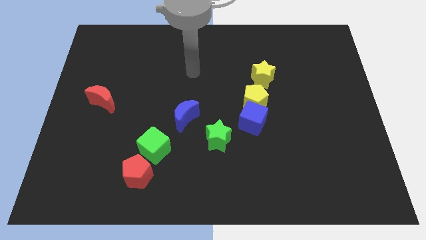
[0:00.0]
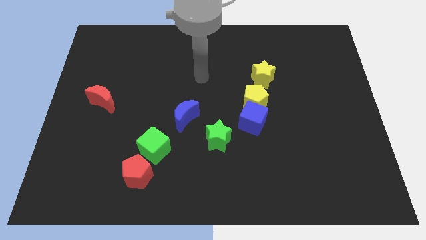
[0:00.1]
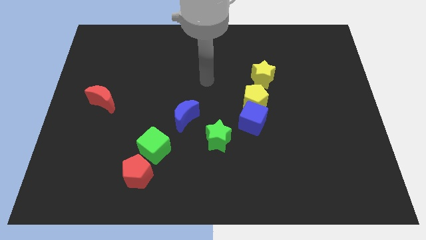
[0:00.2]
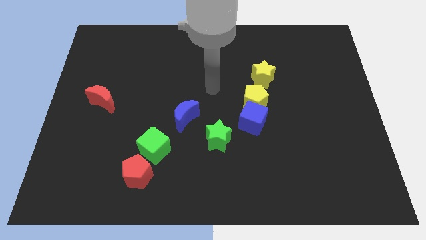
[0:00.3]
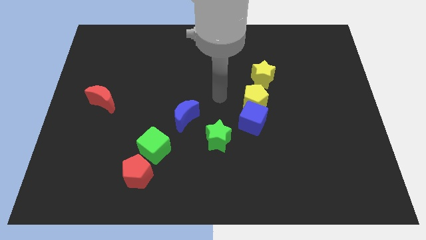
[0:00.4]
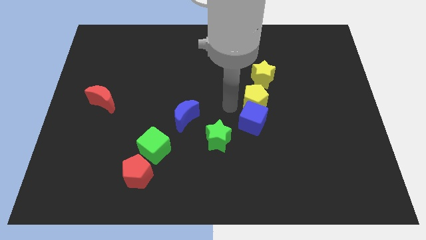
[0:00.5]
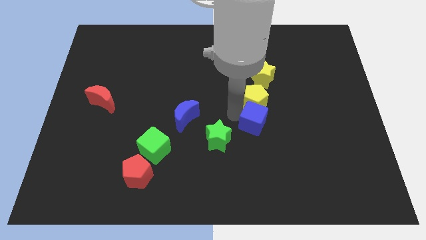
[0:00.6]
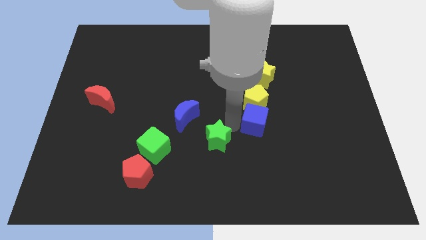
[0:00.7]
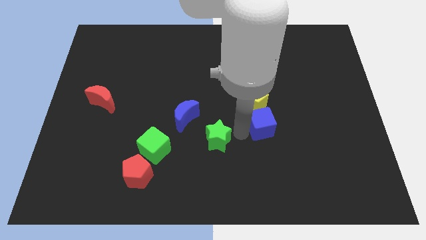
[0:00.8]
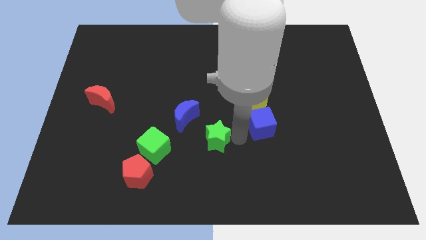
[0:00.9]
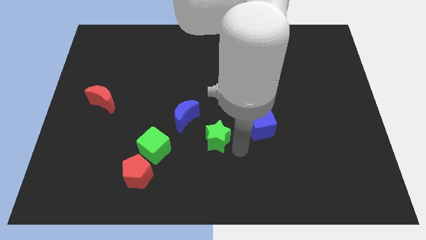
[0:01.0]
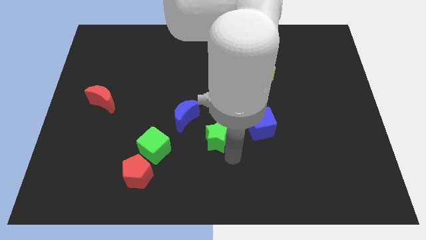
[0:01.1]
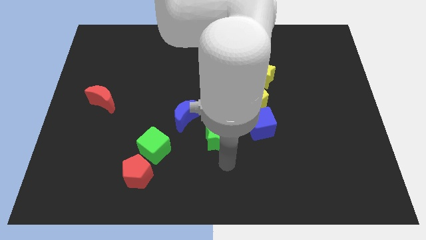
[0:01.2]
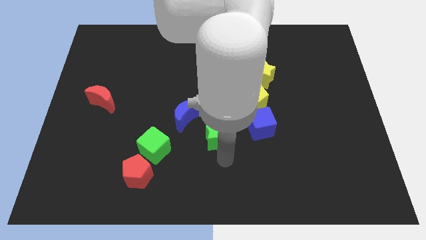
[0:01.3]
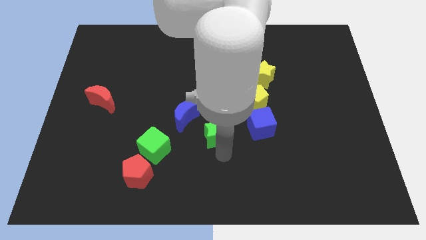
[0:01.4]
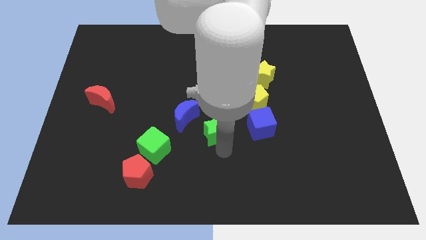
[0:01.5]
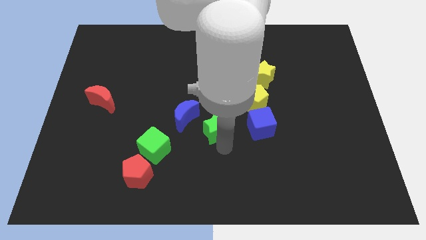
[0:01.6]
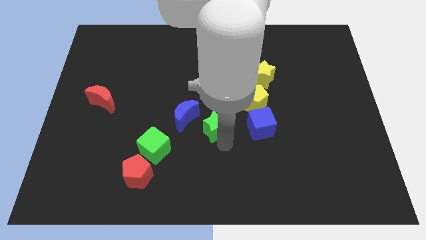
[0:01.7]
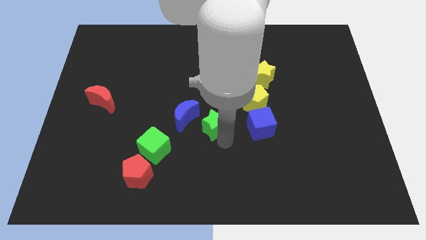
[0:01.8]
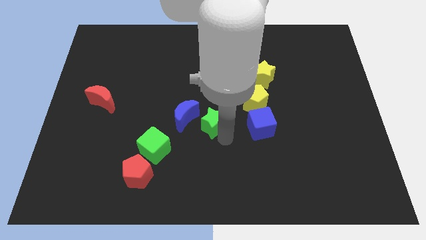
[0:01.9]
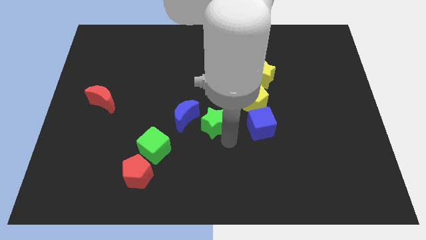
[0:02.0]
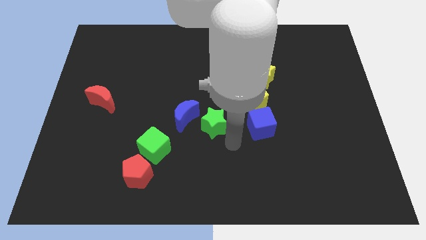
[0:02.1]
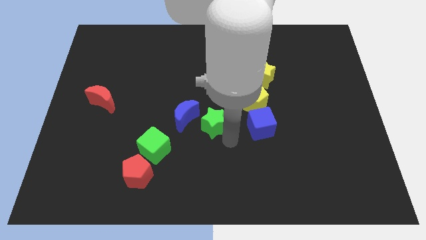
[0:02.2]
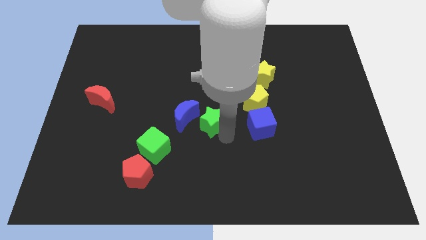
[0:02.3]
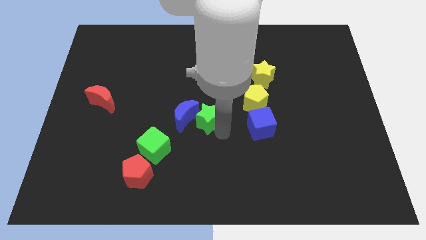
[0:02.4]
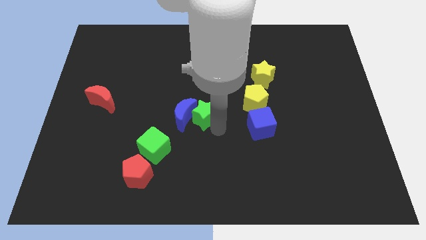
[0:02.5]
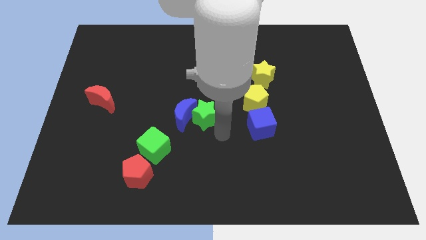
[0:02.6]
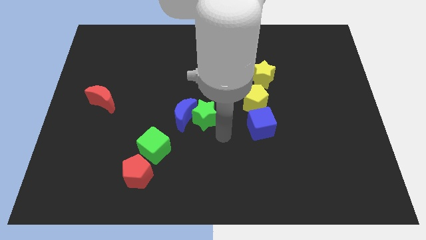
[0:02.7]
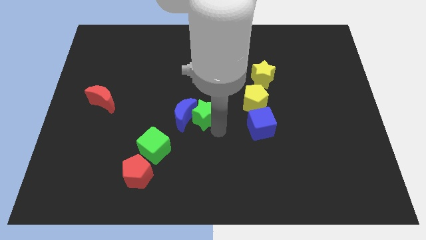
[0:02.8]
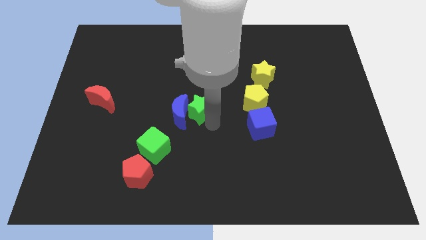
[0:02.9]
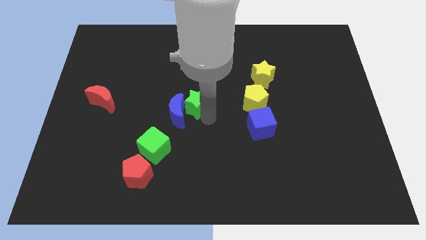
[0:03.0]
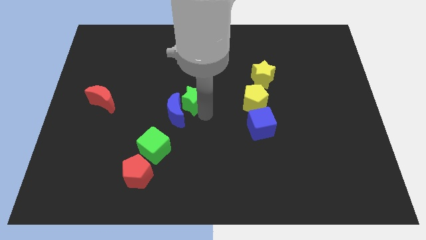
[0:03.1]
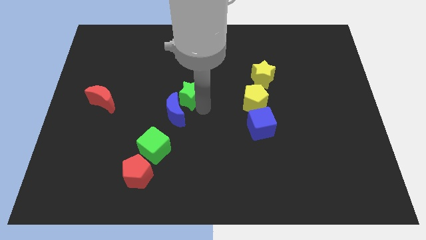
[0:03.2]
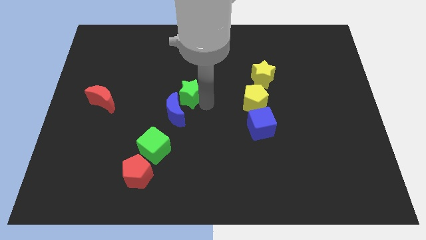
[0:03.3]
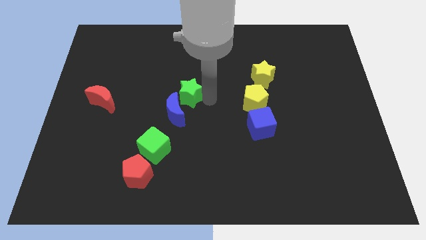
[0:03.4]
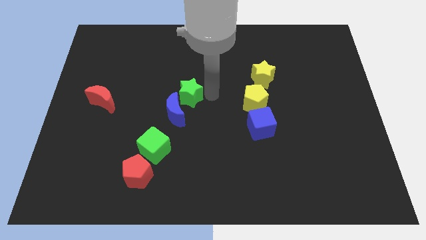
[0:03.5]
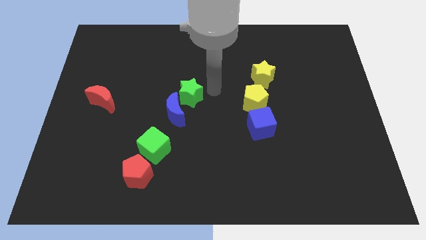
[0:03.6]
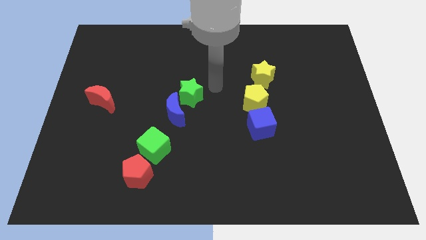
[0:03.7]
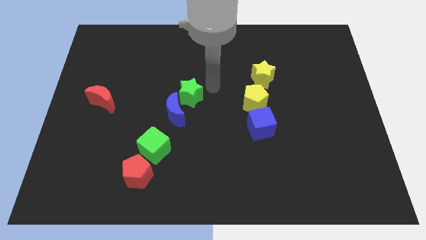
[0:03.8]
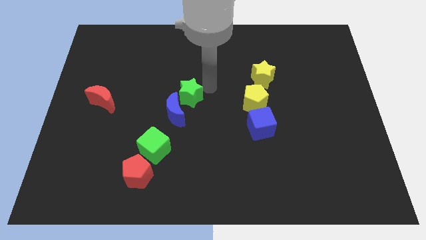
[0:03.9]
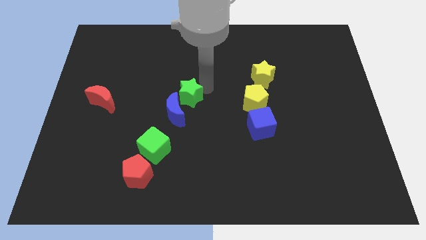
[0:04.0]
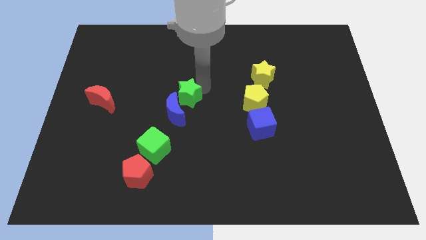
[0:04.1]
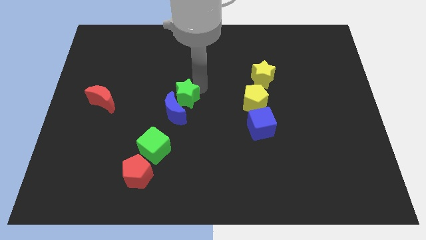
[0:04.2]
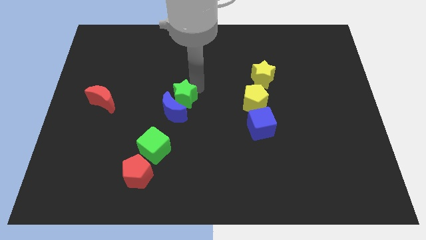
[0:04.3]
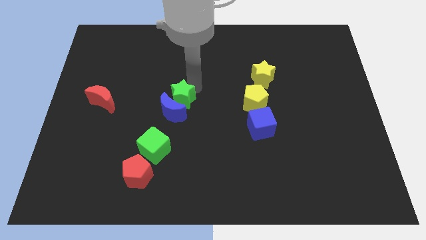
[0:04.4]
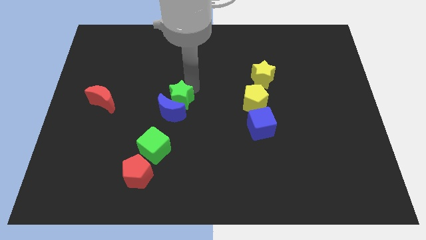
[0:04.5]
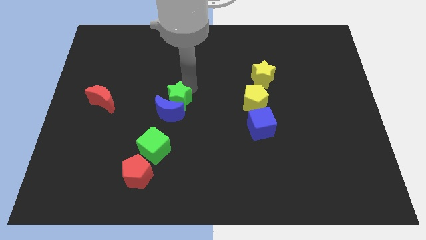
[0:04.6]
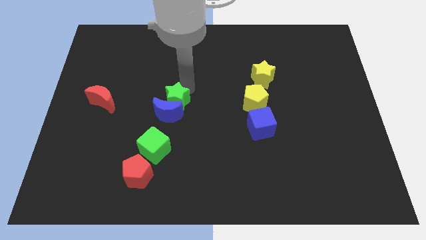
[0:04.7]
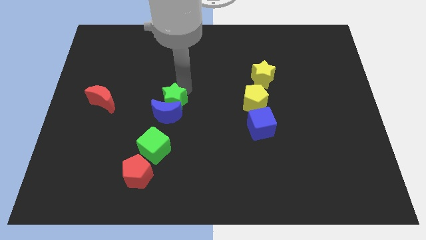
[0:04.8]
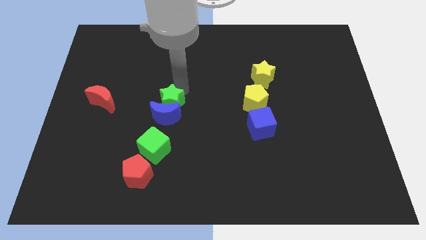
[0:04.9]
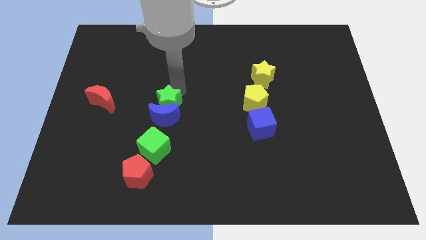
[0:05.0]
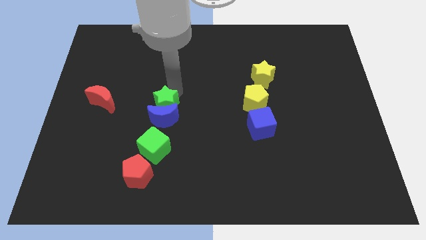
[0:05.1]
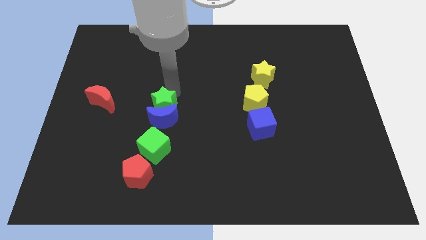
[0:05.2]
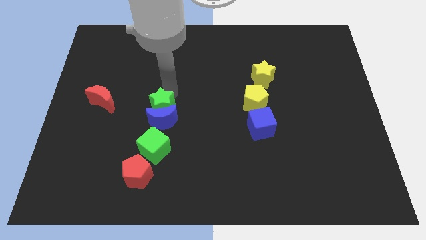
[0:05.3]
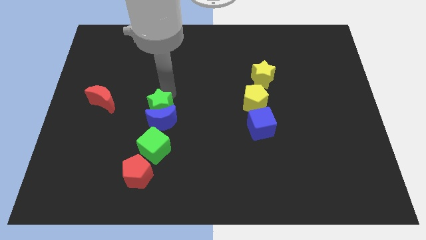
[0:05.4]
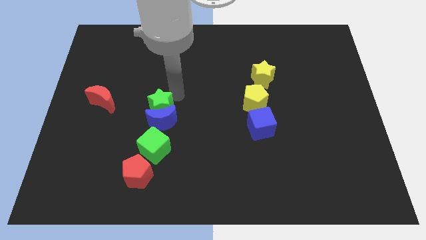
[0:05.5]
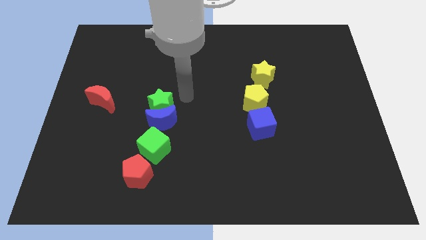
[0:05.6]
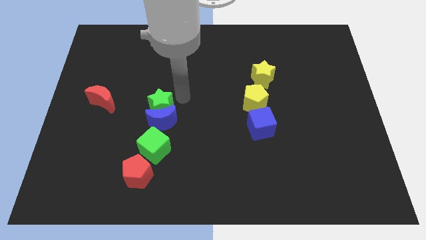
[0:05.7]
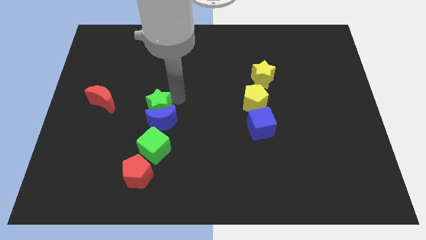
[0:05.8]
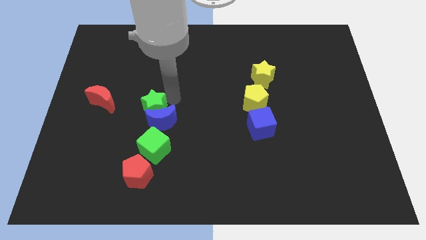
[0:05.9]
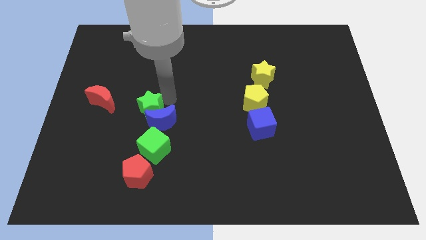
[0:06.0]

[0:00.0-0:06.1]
put the green star just left of the blue moon

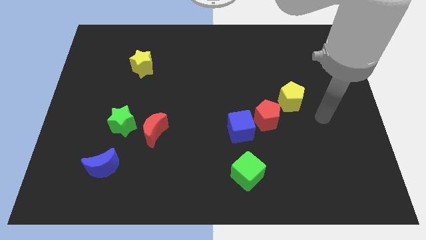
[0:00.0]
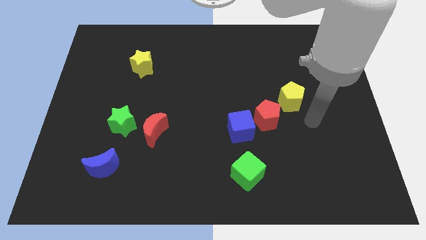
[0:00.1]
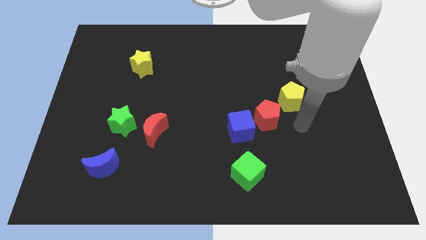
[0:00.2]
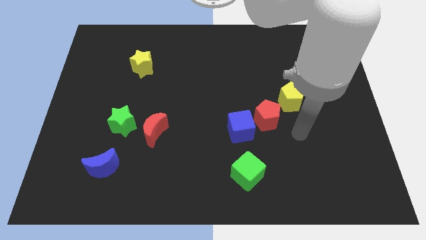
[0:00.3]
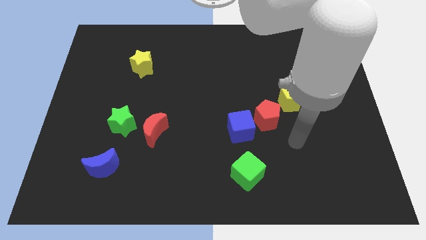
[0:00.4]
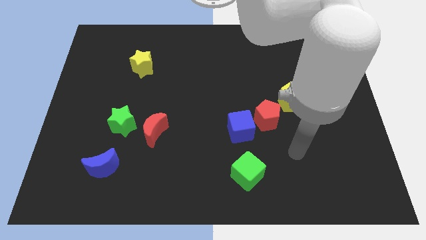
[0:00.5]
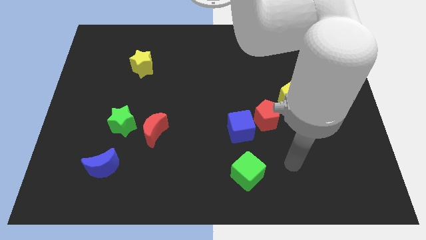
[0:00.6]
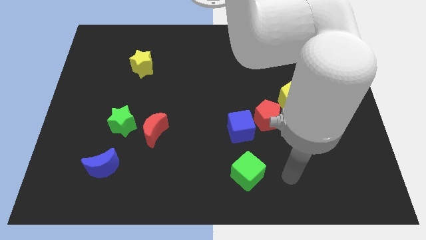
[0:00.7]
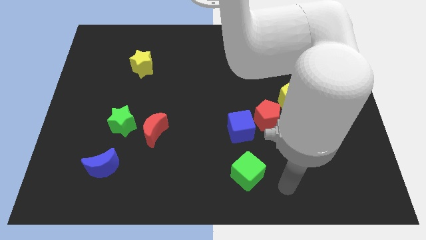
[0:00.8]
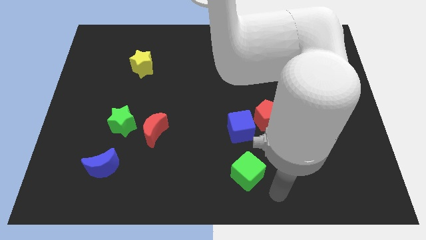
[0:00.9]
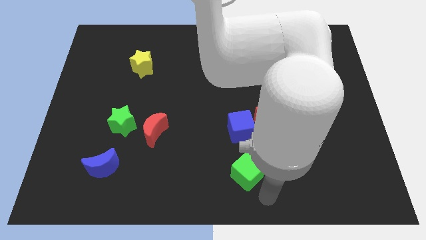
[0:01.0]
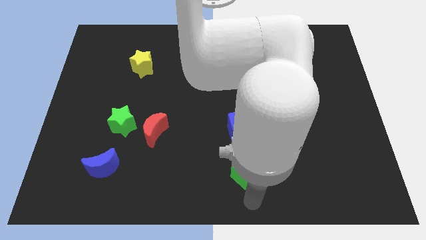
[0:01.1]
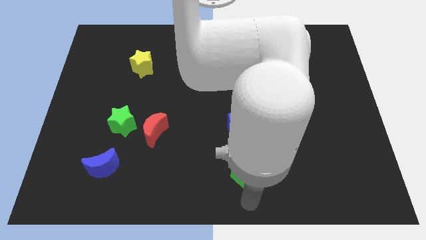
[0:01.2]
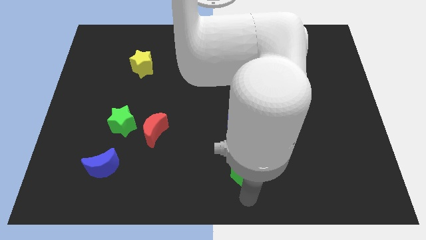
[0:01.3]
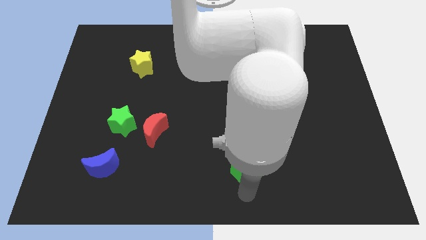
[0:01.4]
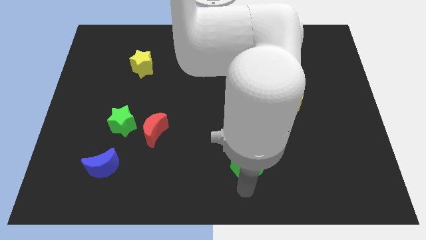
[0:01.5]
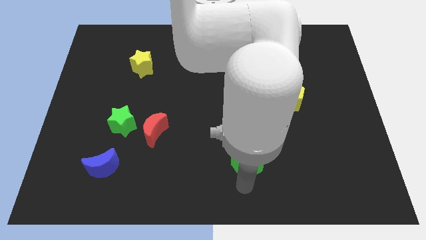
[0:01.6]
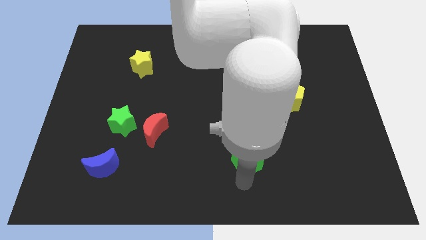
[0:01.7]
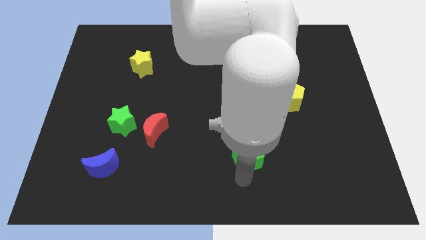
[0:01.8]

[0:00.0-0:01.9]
move the green cube to the bottom left of the red pentagon
